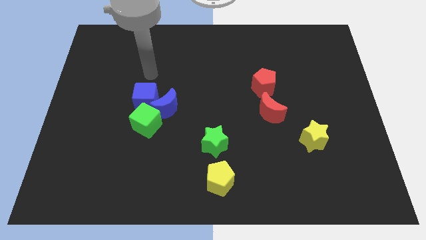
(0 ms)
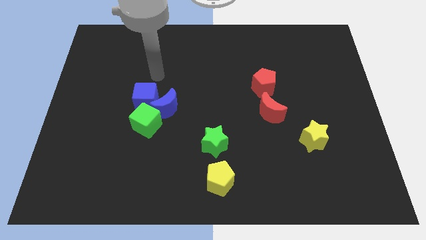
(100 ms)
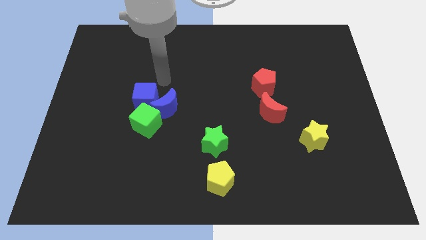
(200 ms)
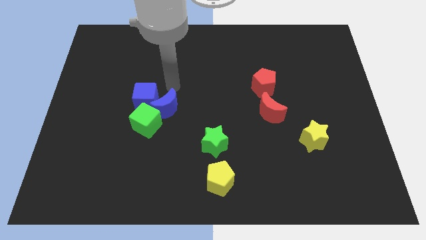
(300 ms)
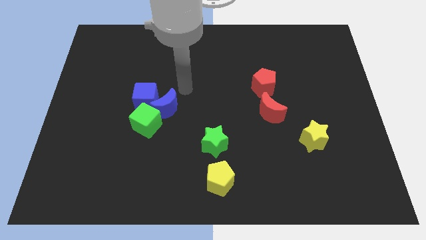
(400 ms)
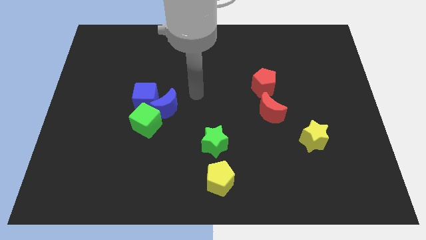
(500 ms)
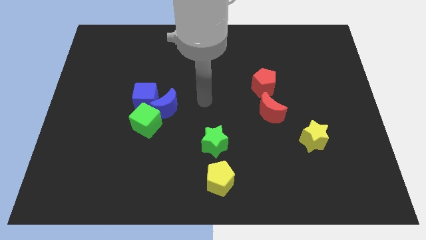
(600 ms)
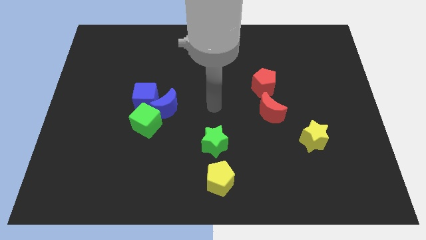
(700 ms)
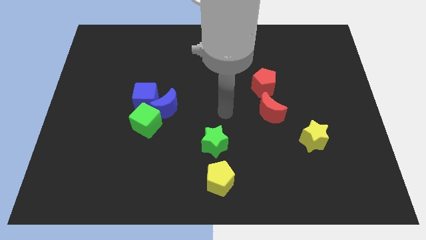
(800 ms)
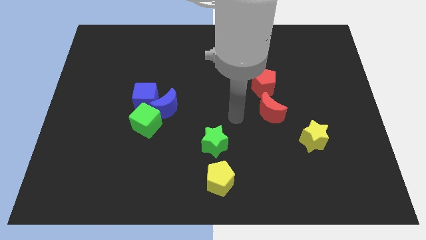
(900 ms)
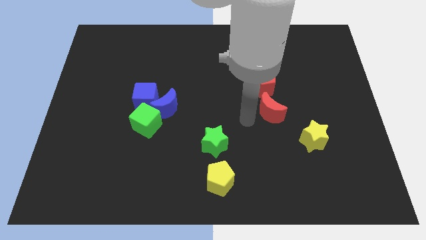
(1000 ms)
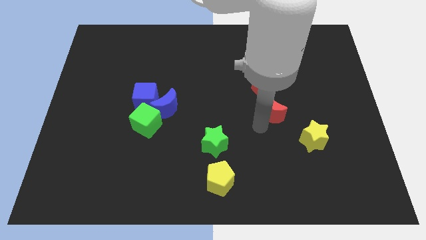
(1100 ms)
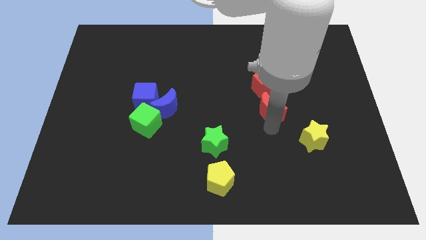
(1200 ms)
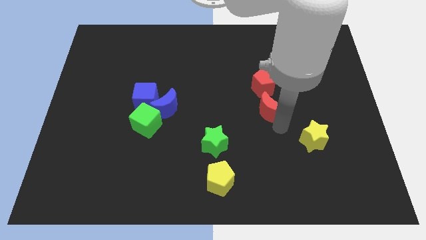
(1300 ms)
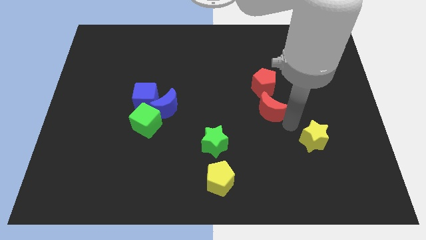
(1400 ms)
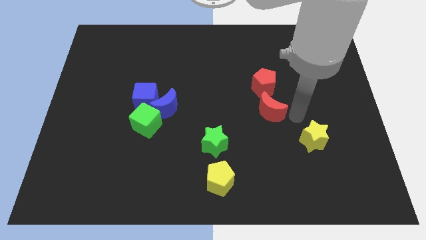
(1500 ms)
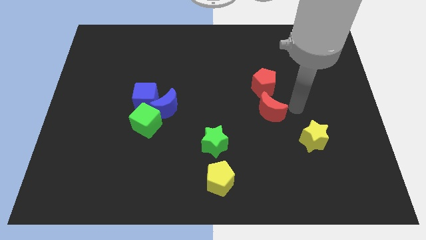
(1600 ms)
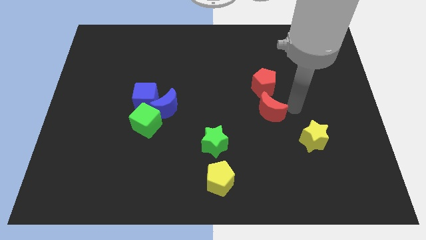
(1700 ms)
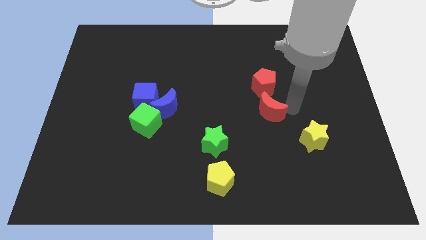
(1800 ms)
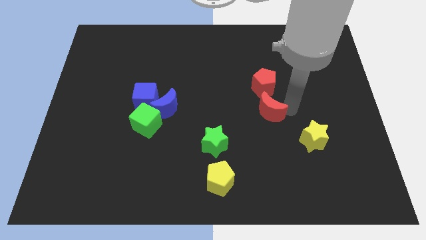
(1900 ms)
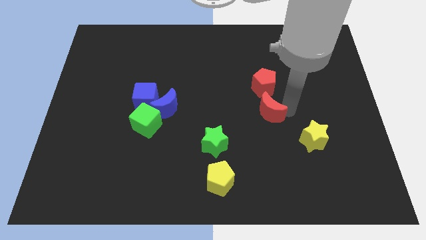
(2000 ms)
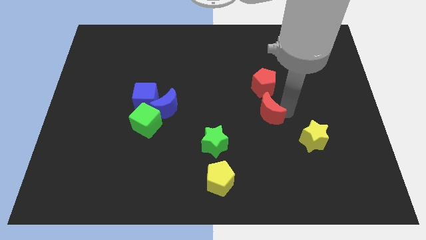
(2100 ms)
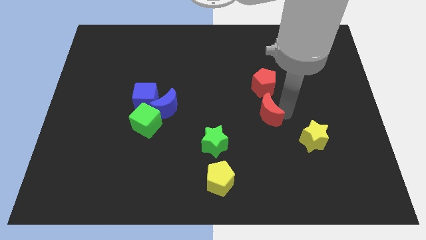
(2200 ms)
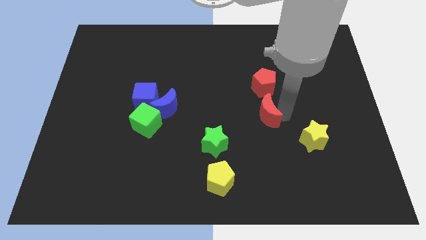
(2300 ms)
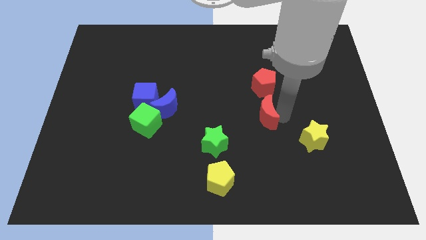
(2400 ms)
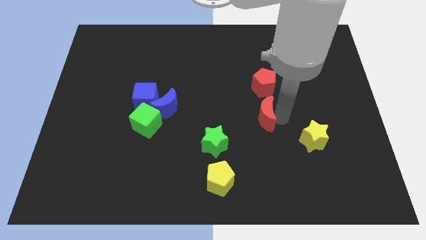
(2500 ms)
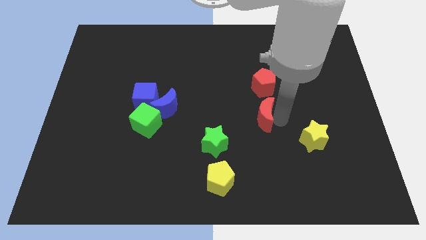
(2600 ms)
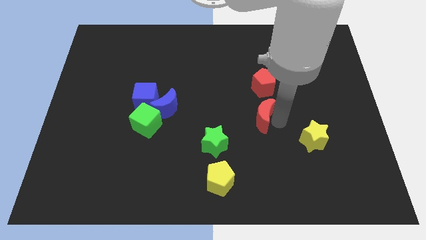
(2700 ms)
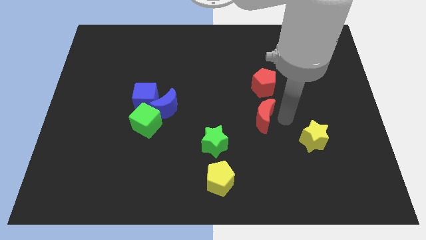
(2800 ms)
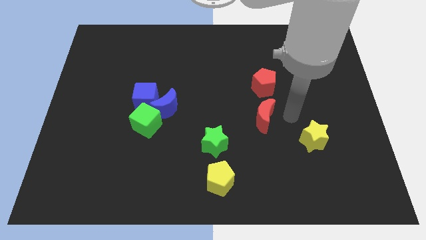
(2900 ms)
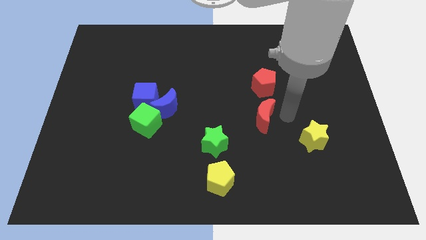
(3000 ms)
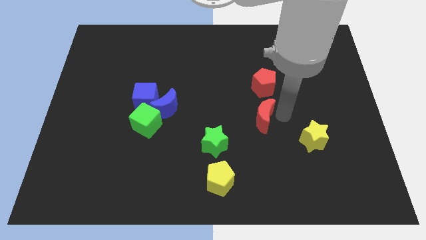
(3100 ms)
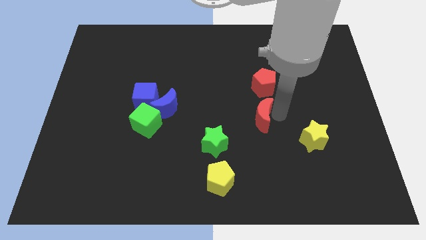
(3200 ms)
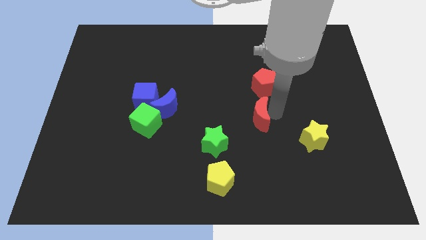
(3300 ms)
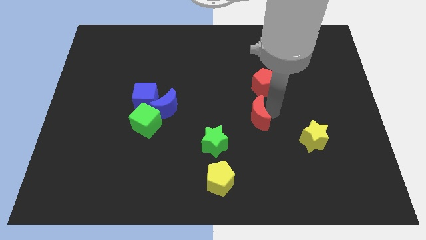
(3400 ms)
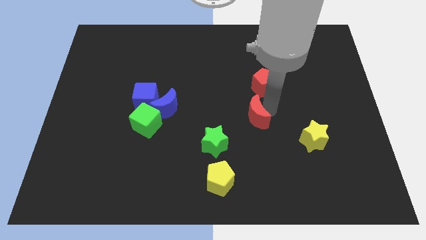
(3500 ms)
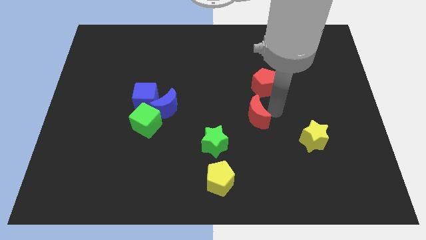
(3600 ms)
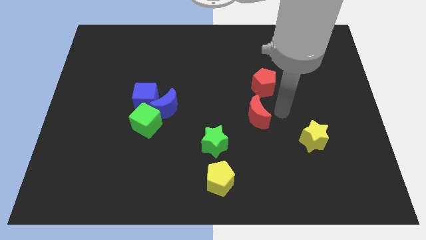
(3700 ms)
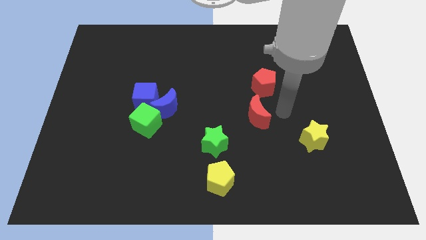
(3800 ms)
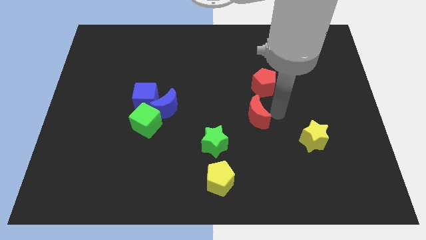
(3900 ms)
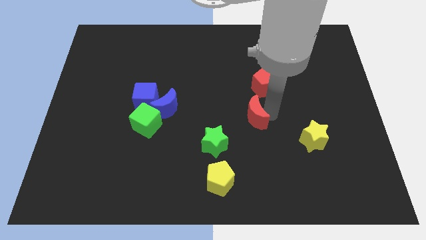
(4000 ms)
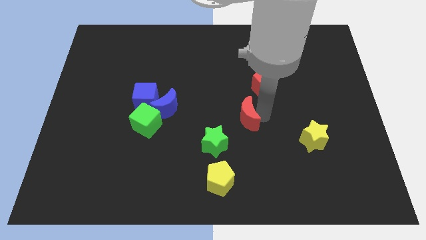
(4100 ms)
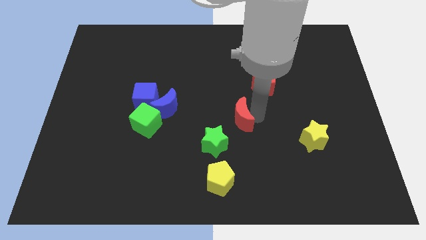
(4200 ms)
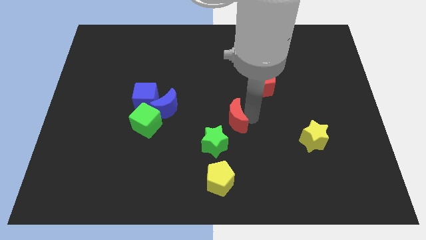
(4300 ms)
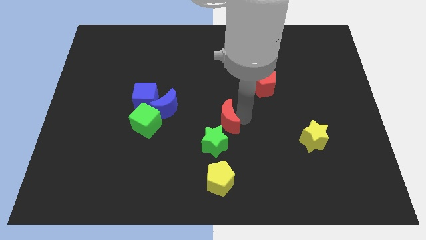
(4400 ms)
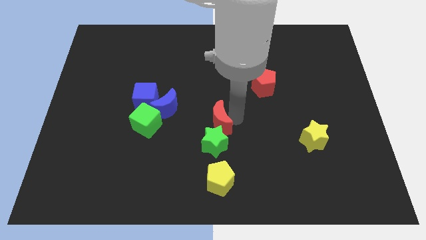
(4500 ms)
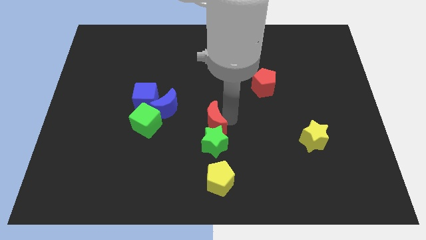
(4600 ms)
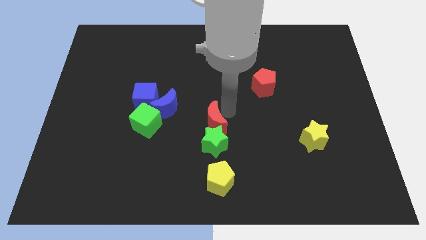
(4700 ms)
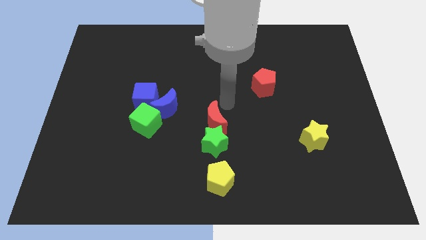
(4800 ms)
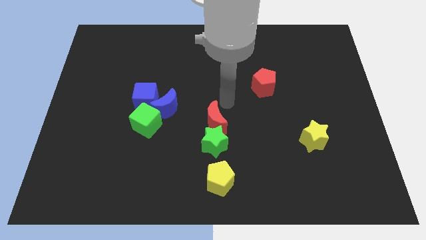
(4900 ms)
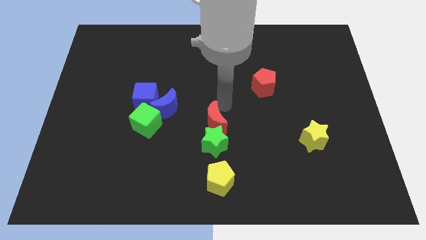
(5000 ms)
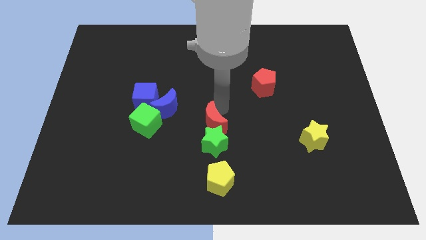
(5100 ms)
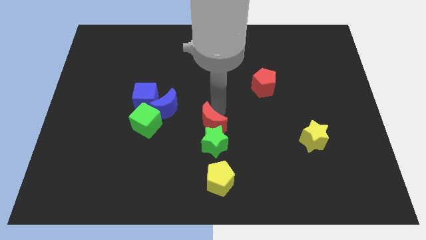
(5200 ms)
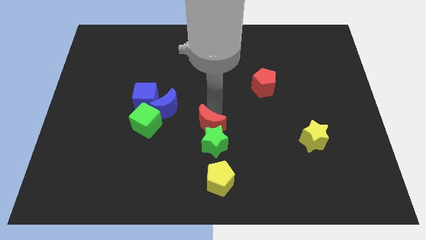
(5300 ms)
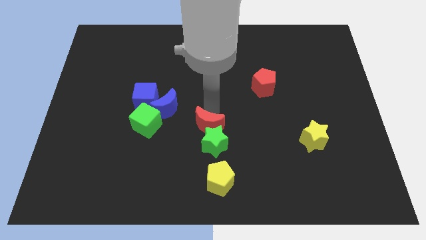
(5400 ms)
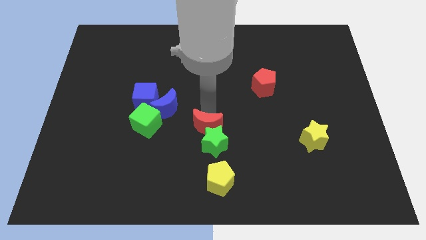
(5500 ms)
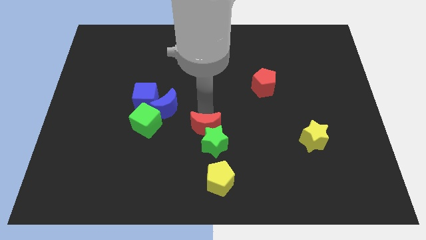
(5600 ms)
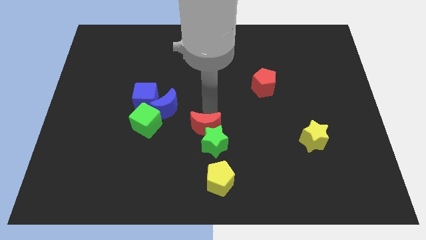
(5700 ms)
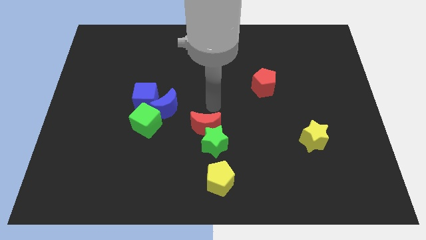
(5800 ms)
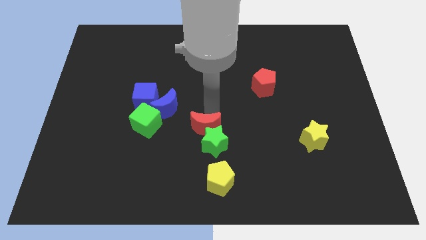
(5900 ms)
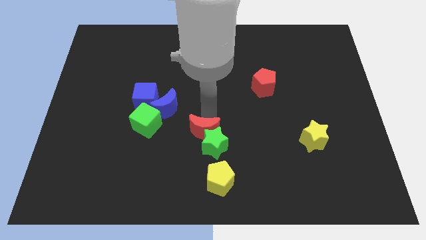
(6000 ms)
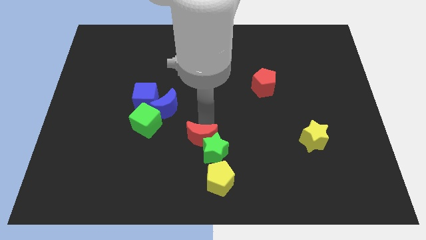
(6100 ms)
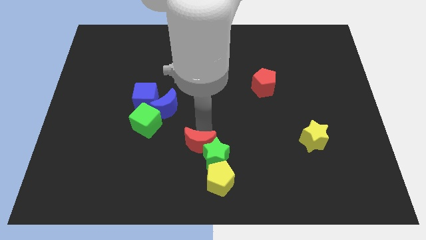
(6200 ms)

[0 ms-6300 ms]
move the red moon to the top left side of the yellow pentagon
